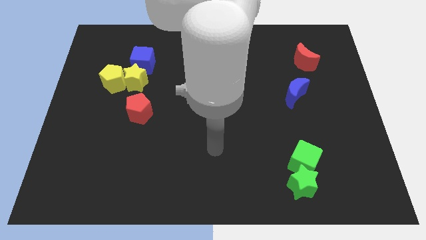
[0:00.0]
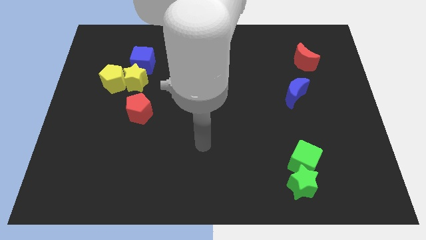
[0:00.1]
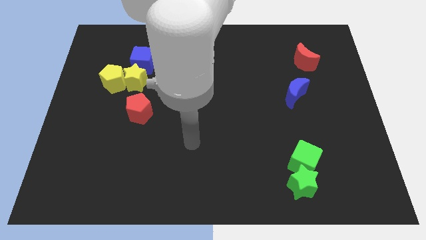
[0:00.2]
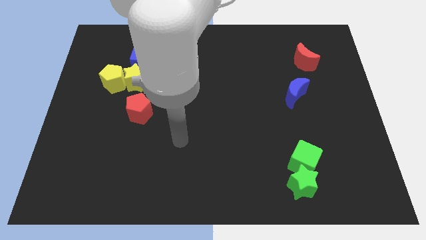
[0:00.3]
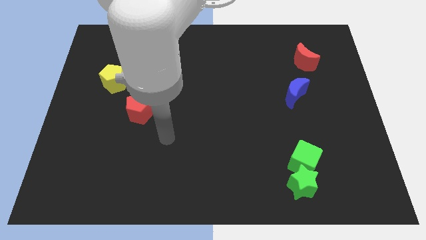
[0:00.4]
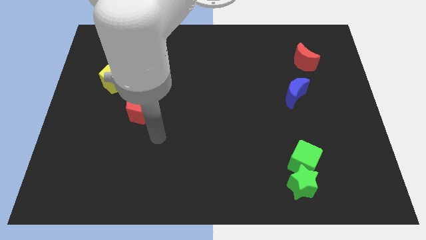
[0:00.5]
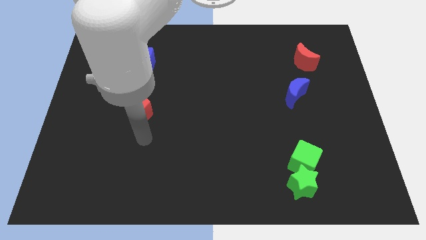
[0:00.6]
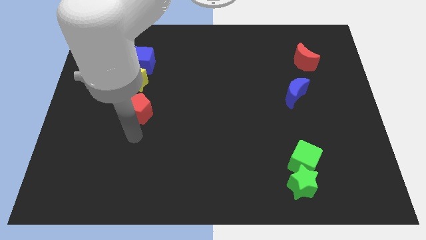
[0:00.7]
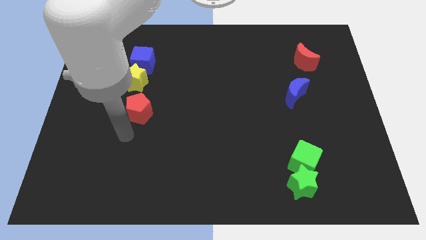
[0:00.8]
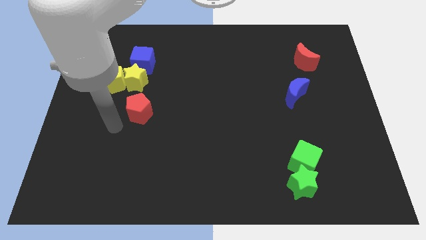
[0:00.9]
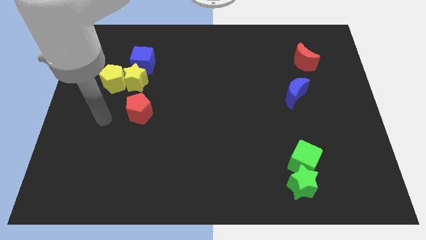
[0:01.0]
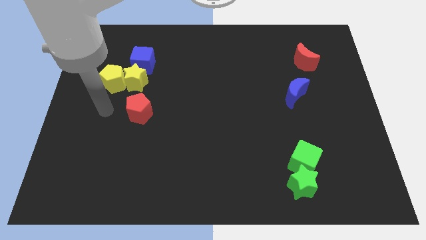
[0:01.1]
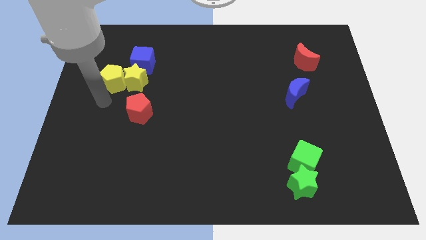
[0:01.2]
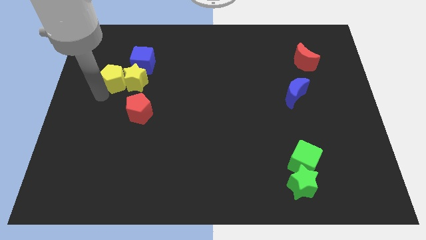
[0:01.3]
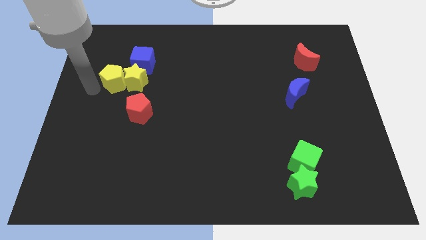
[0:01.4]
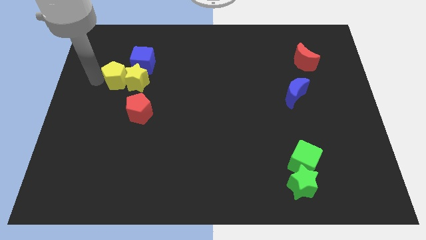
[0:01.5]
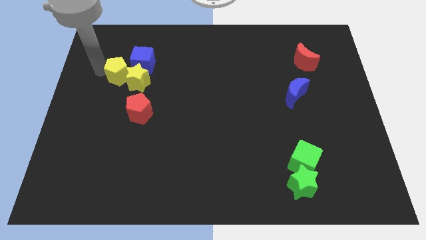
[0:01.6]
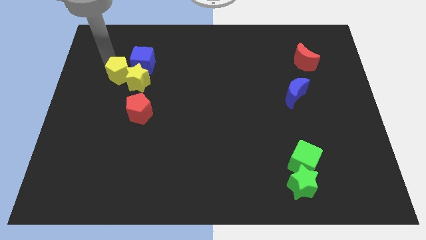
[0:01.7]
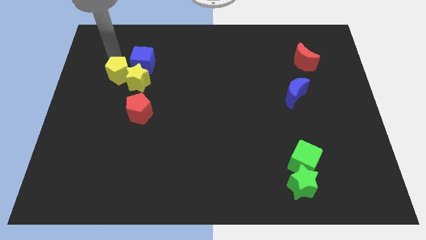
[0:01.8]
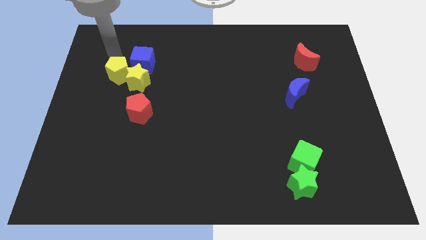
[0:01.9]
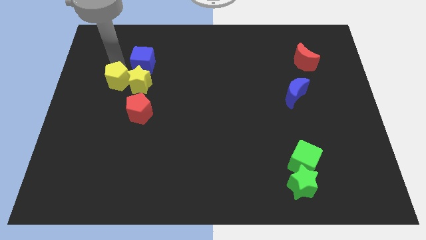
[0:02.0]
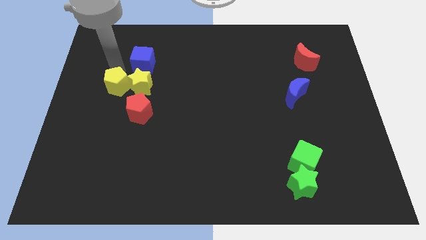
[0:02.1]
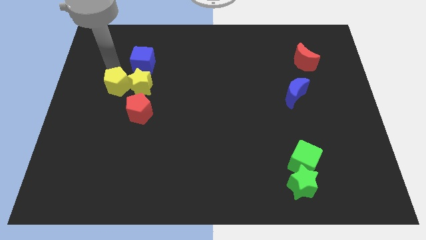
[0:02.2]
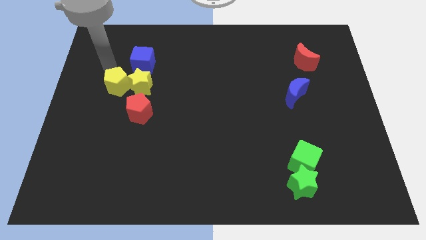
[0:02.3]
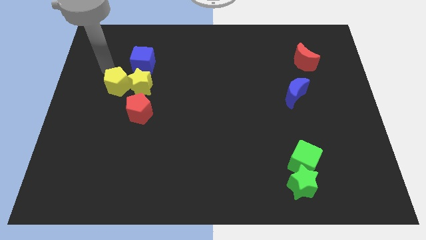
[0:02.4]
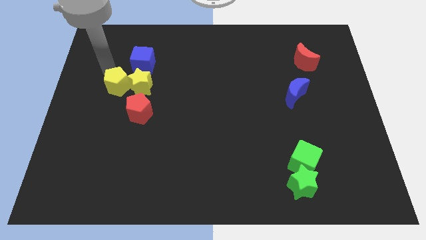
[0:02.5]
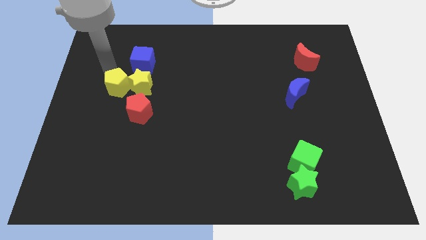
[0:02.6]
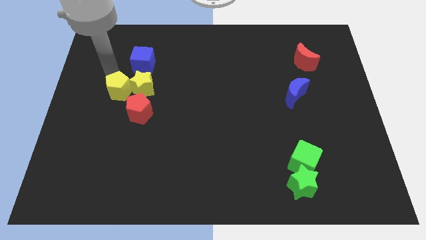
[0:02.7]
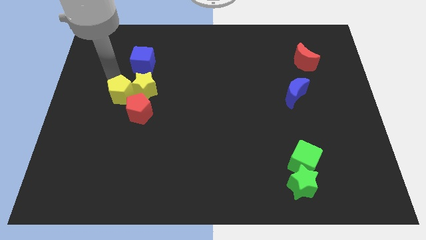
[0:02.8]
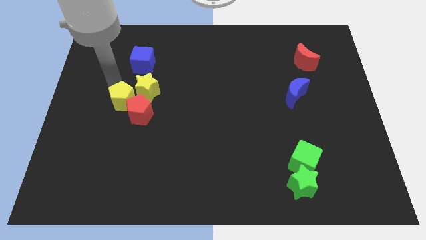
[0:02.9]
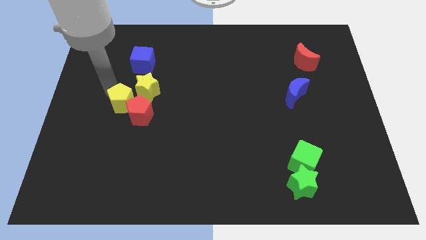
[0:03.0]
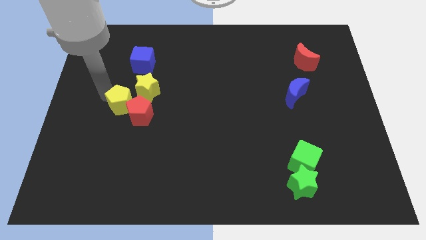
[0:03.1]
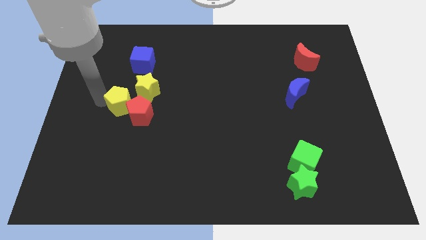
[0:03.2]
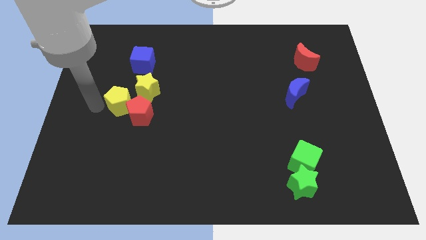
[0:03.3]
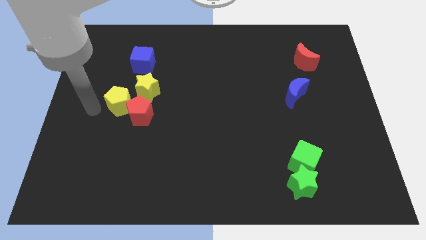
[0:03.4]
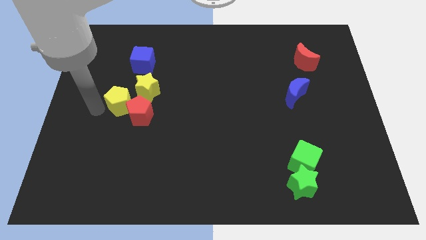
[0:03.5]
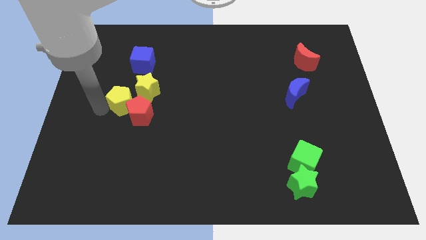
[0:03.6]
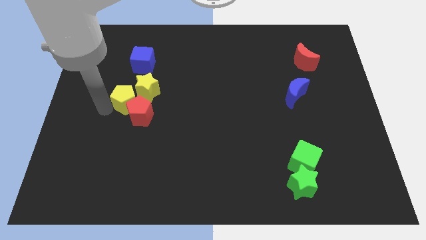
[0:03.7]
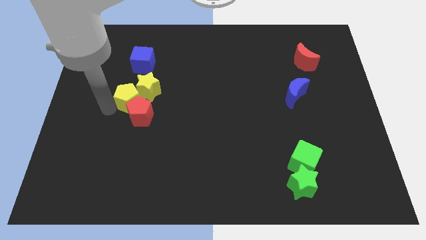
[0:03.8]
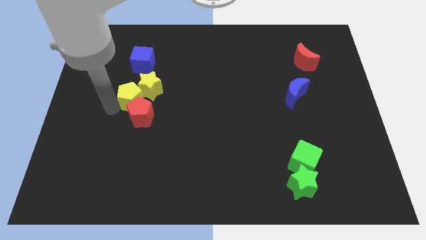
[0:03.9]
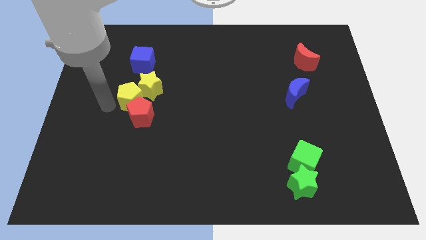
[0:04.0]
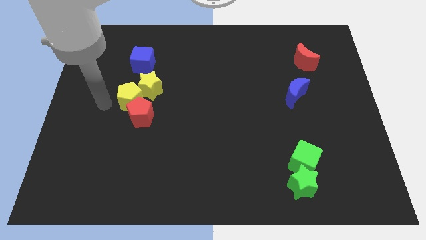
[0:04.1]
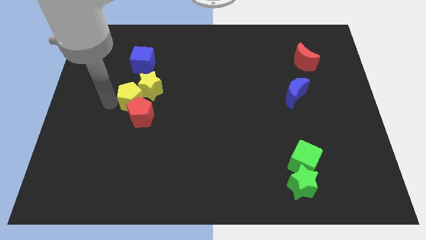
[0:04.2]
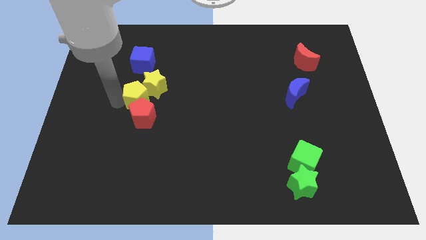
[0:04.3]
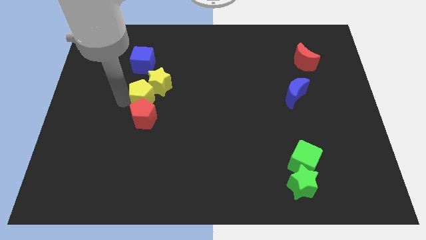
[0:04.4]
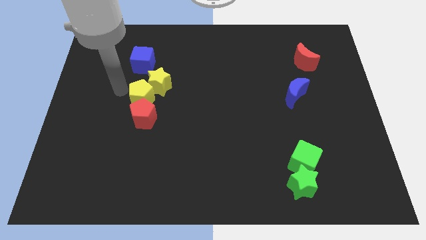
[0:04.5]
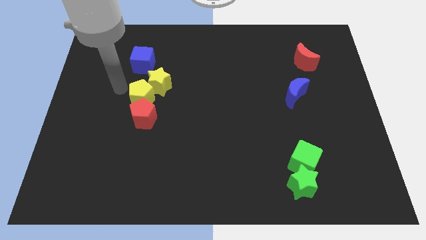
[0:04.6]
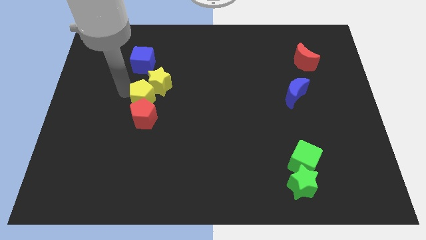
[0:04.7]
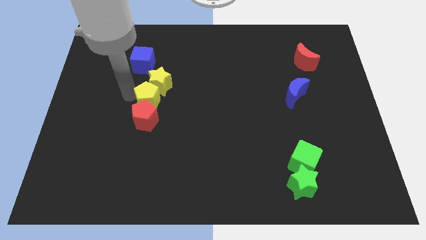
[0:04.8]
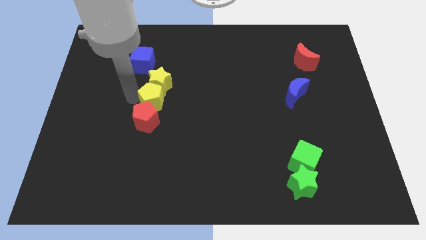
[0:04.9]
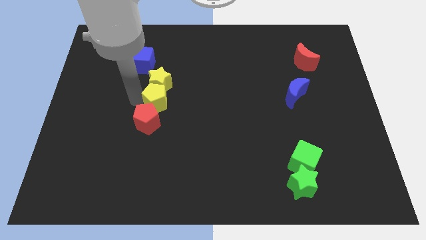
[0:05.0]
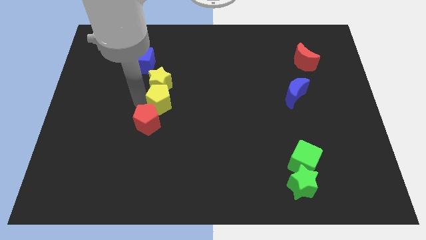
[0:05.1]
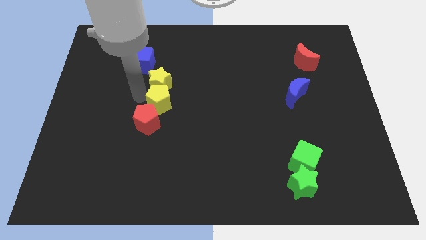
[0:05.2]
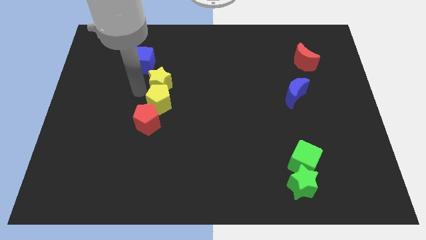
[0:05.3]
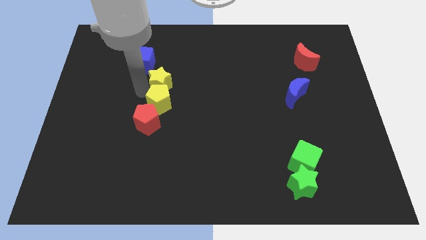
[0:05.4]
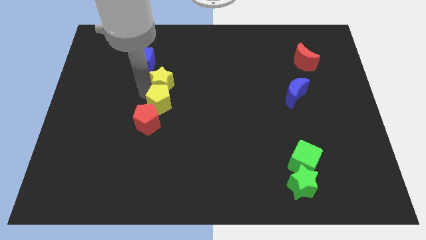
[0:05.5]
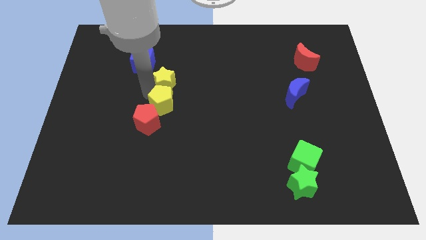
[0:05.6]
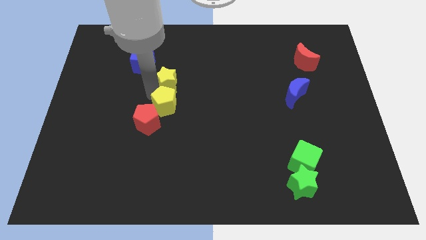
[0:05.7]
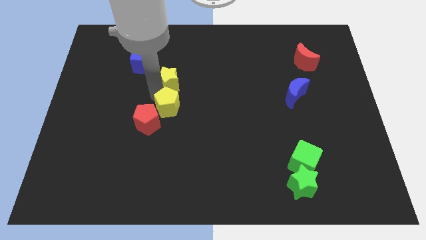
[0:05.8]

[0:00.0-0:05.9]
push the yellow pentagon right of the red pentagon

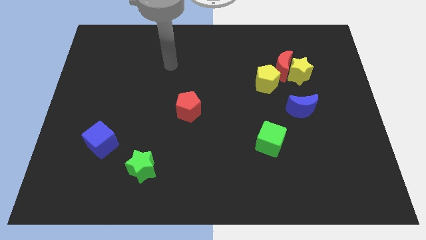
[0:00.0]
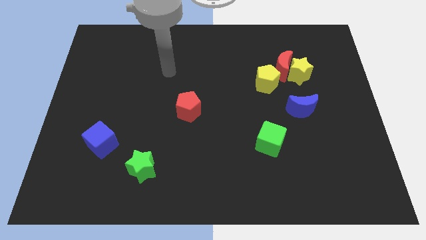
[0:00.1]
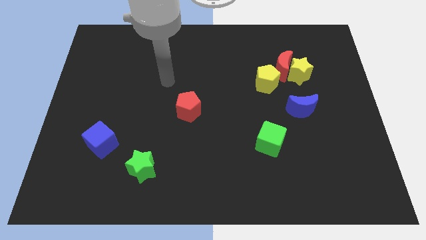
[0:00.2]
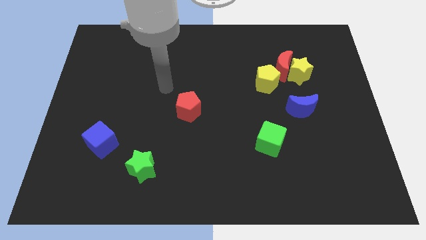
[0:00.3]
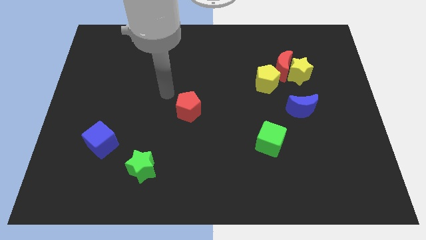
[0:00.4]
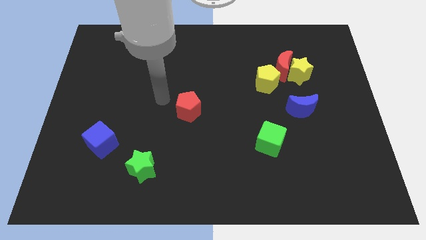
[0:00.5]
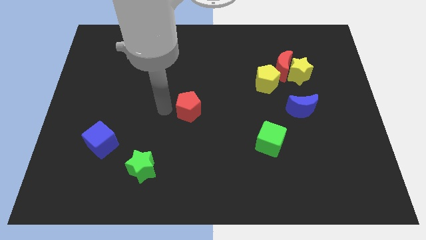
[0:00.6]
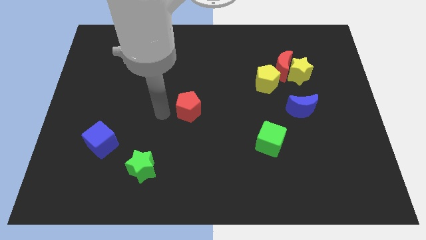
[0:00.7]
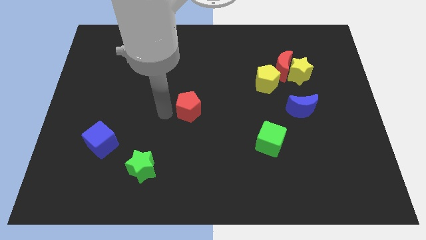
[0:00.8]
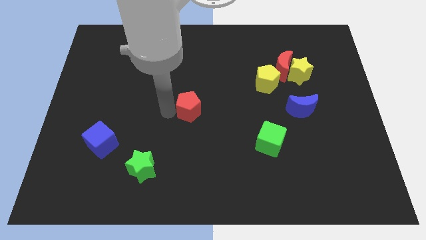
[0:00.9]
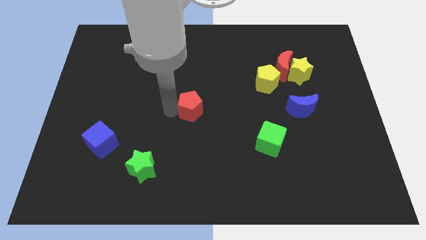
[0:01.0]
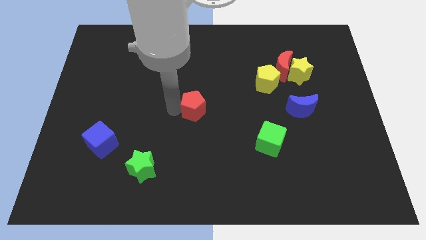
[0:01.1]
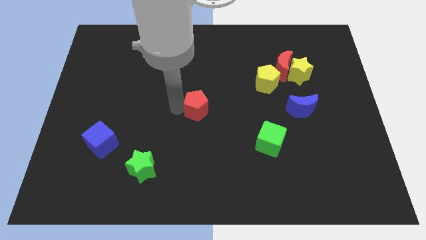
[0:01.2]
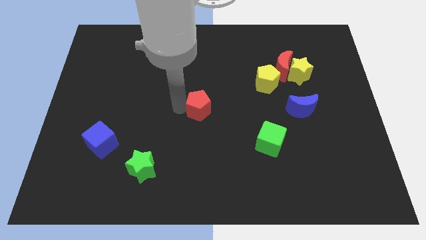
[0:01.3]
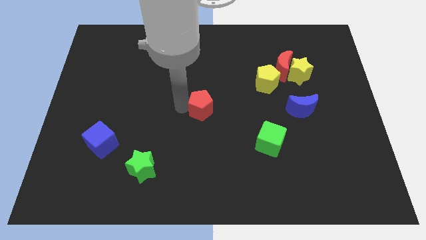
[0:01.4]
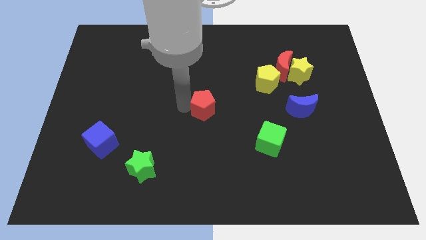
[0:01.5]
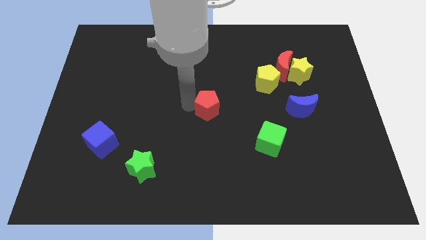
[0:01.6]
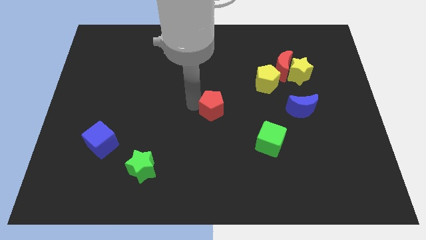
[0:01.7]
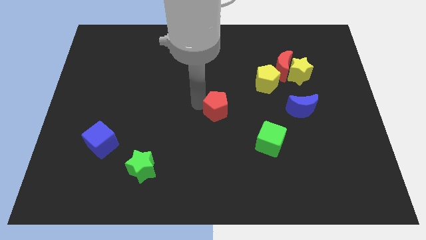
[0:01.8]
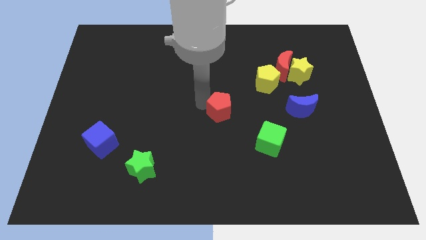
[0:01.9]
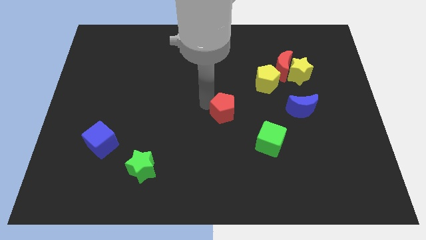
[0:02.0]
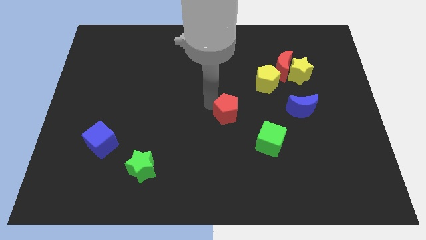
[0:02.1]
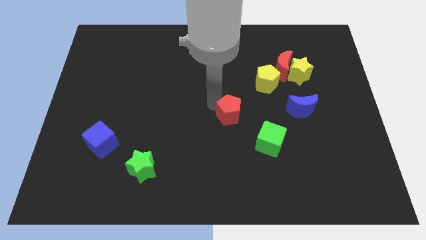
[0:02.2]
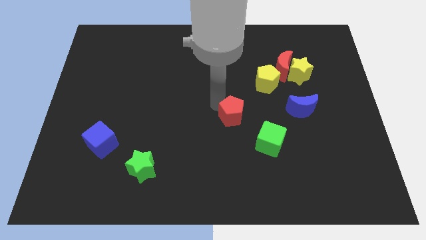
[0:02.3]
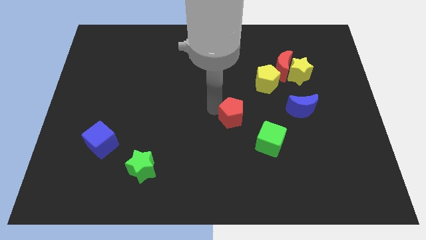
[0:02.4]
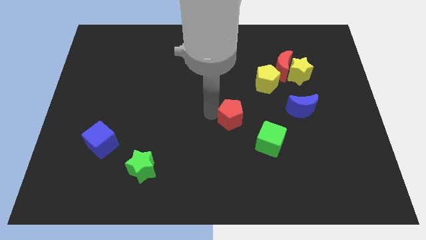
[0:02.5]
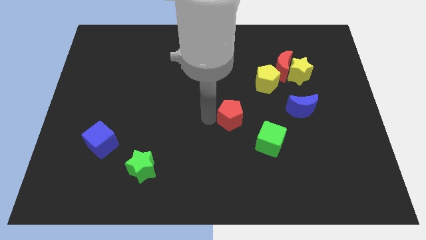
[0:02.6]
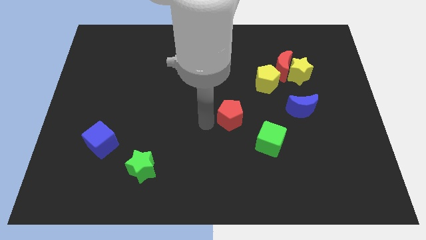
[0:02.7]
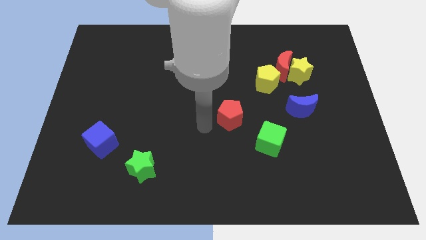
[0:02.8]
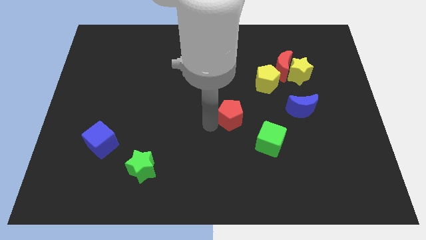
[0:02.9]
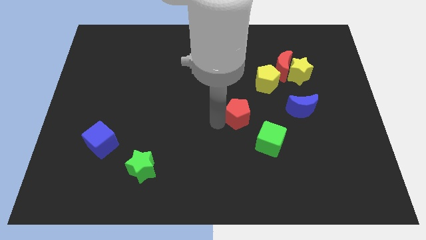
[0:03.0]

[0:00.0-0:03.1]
push the red pentagon left of the blue moon
